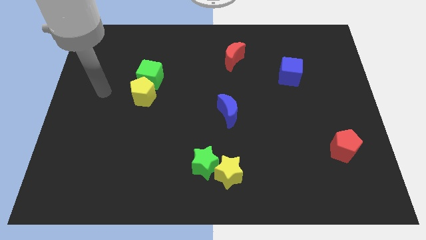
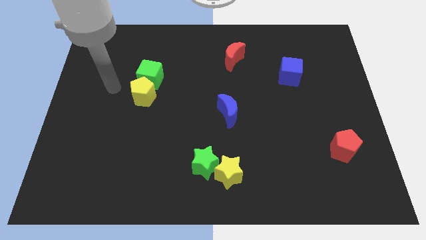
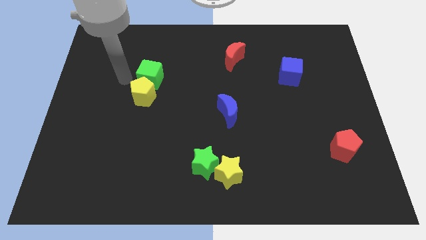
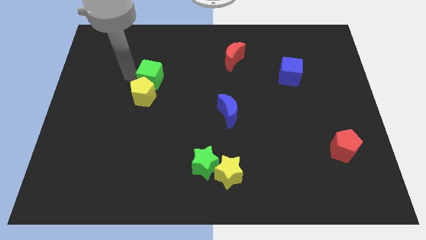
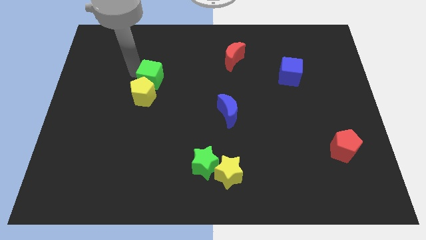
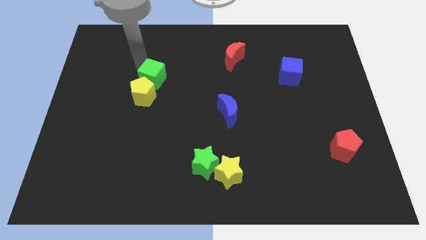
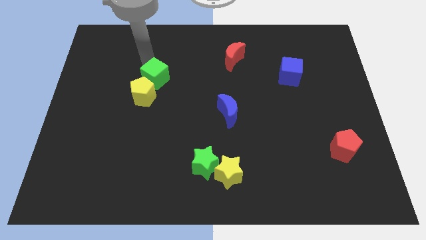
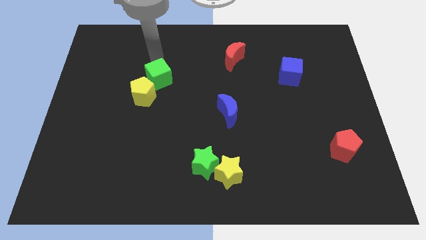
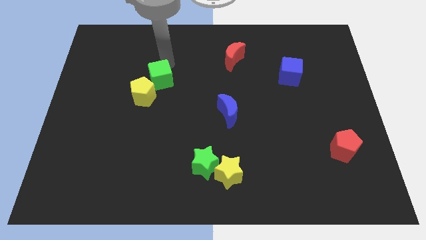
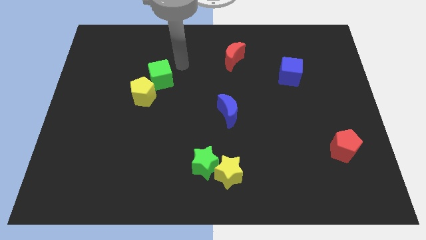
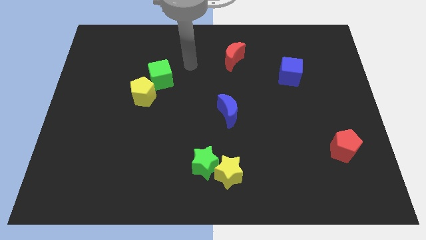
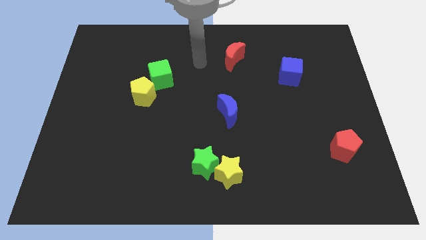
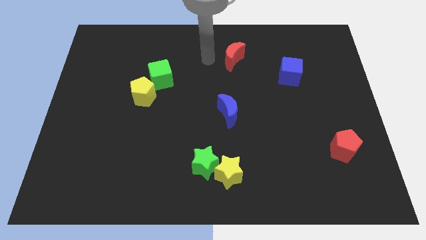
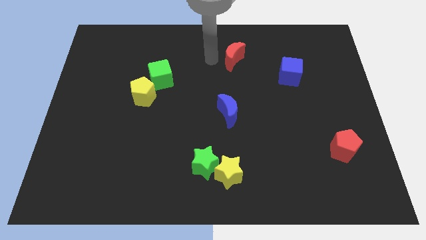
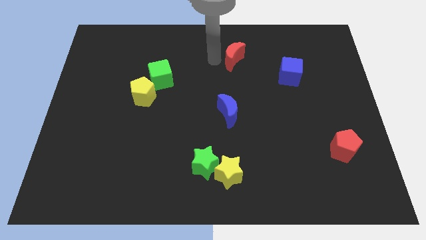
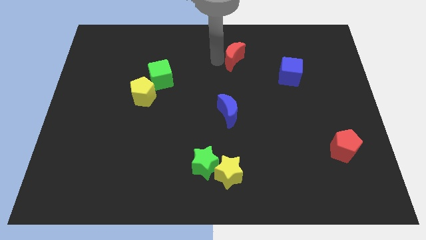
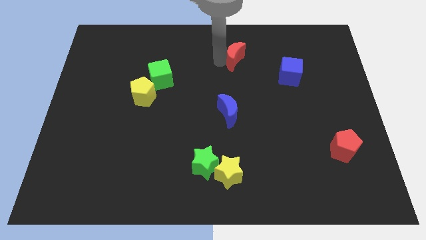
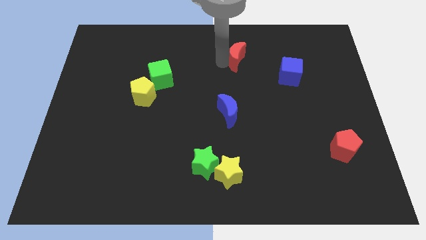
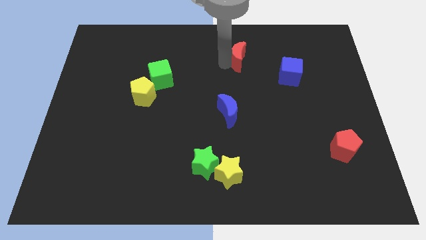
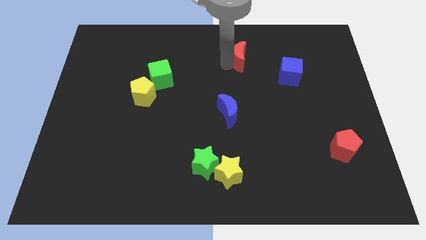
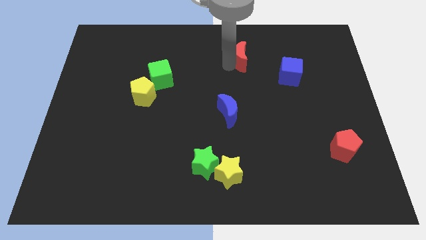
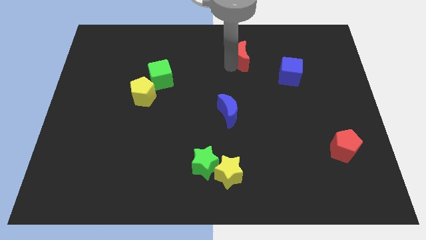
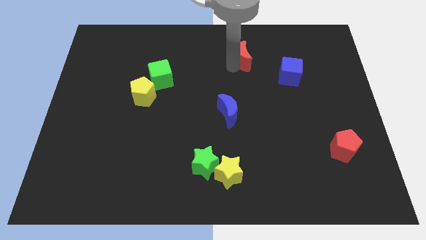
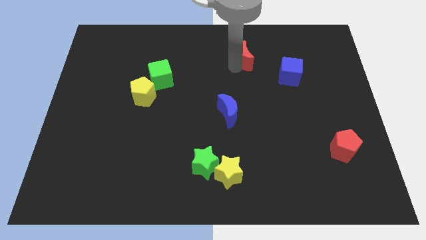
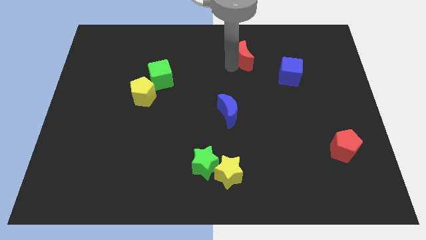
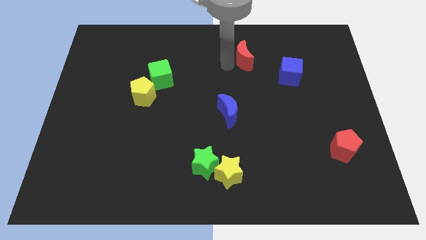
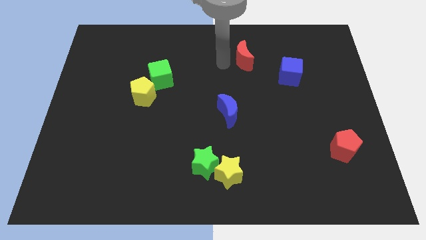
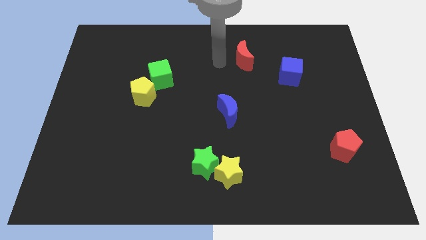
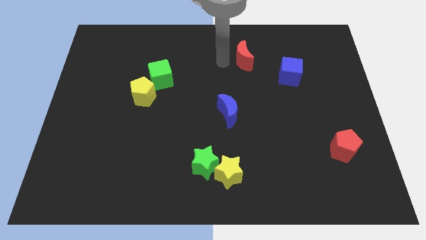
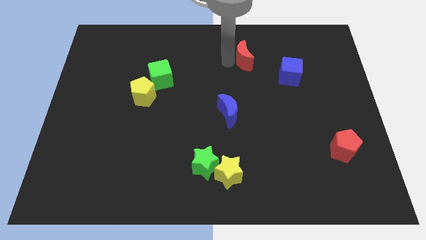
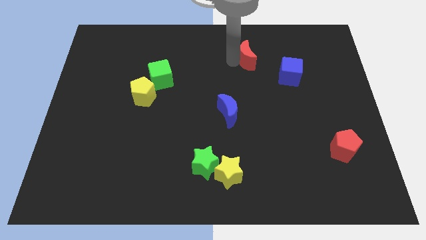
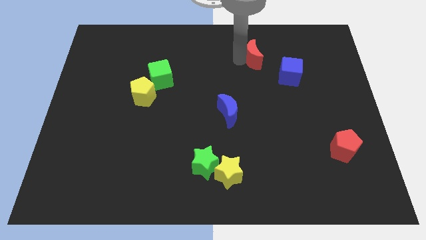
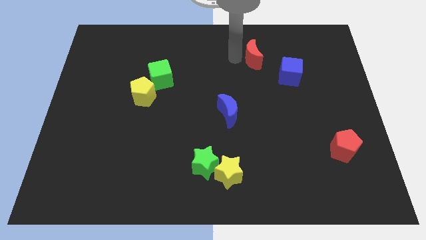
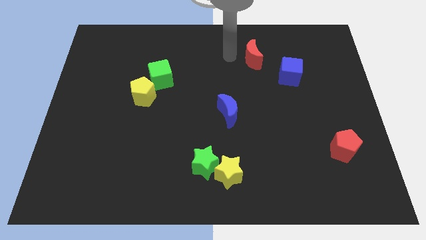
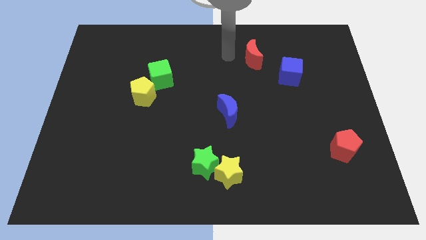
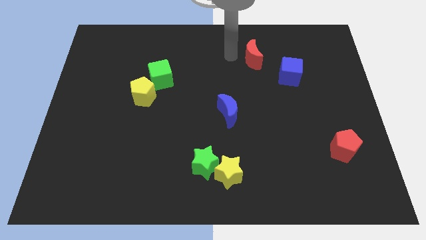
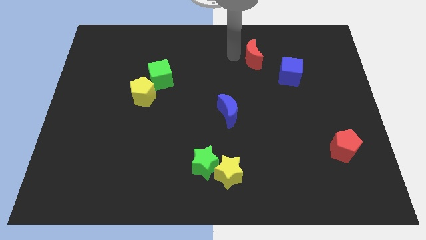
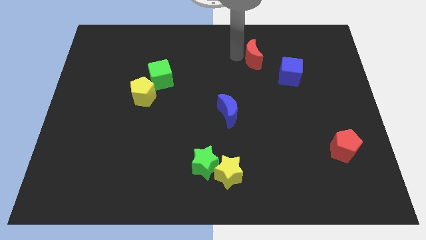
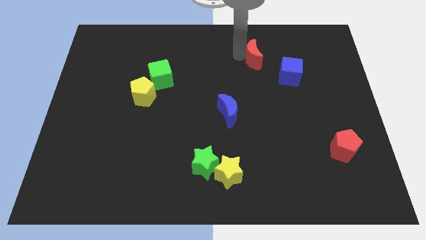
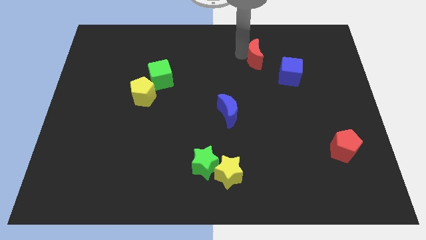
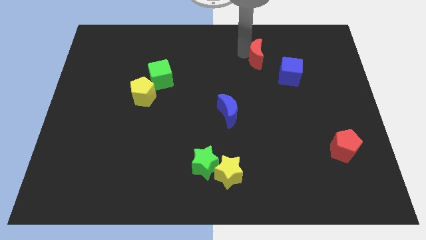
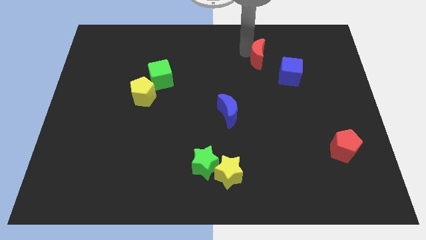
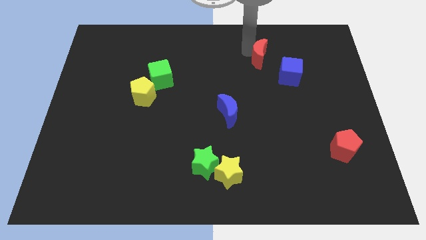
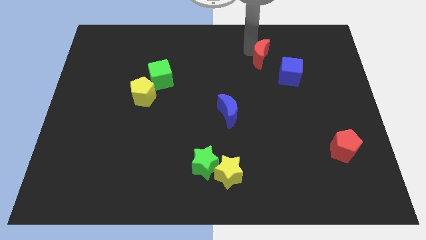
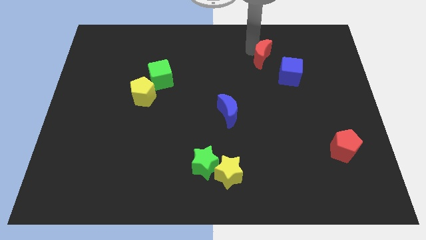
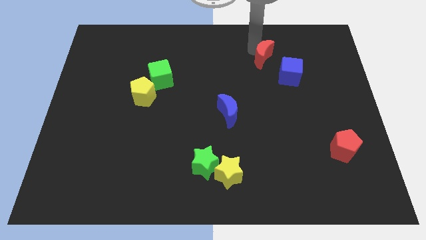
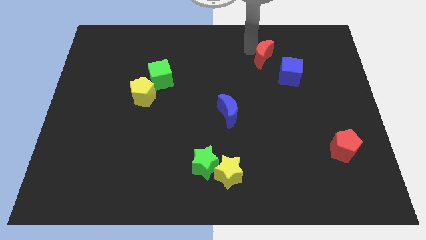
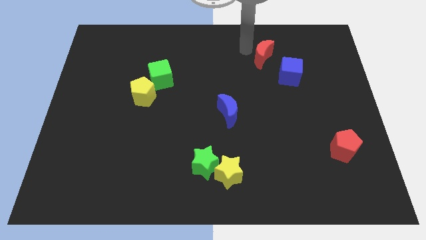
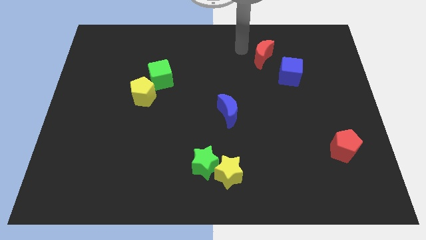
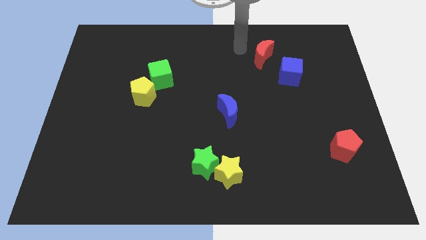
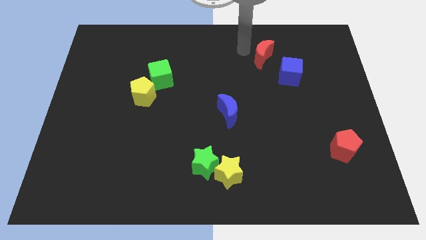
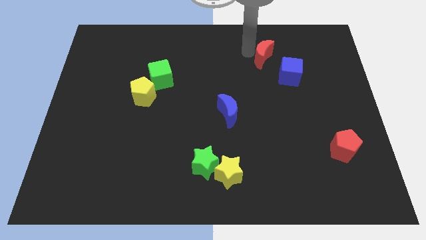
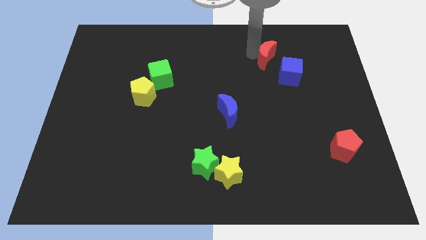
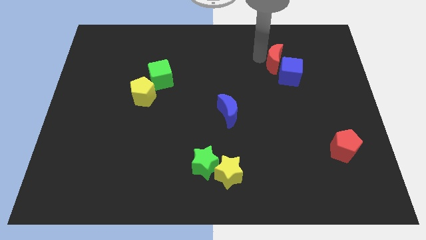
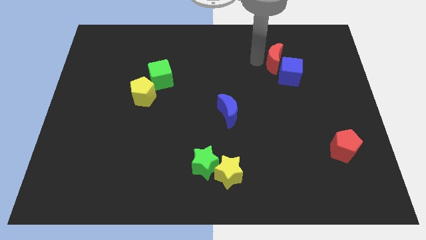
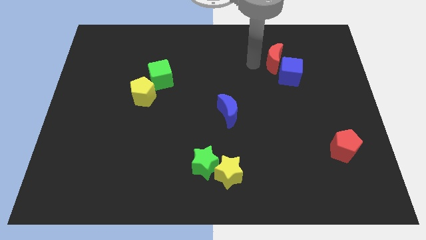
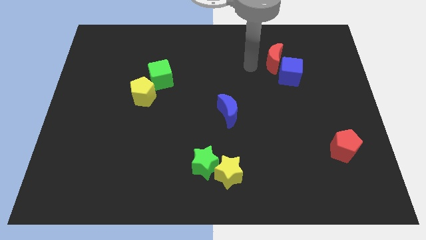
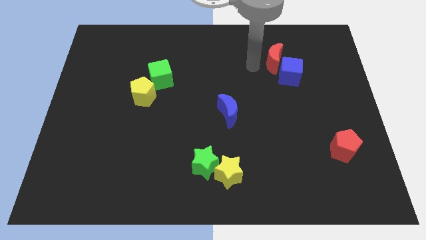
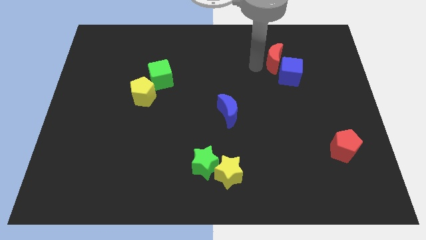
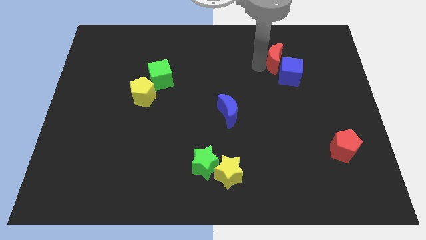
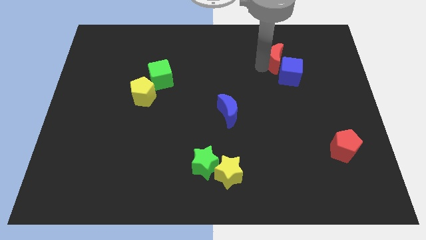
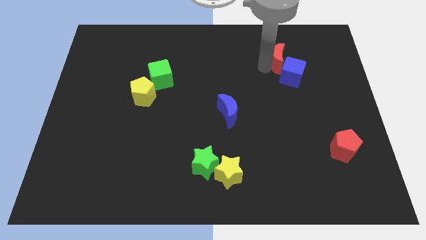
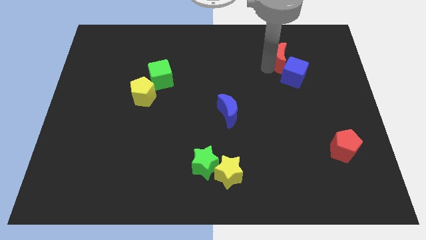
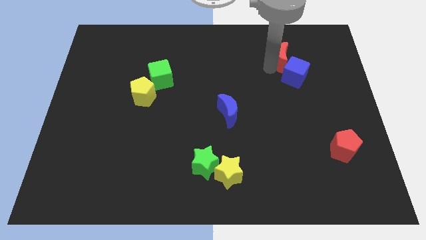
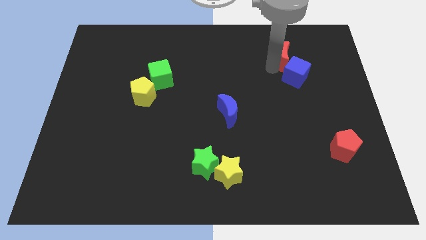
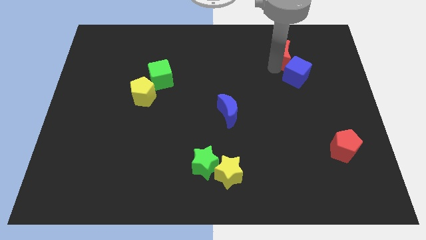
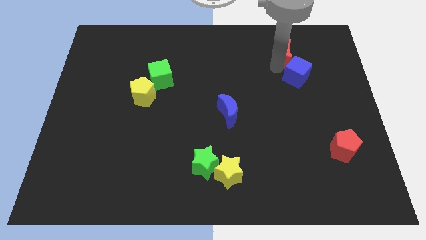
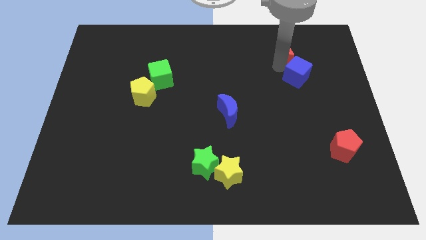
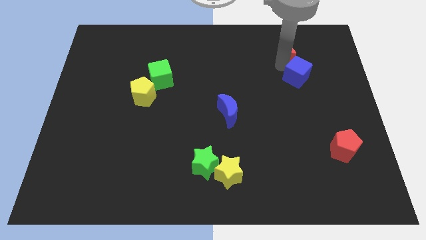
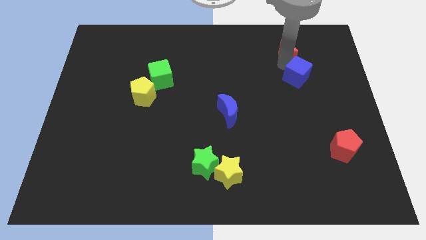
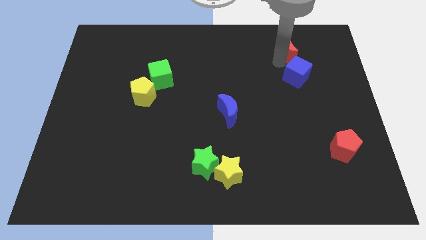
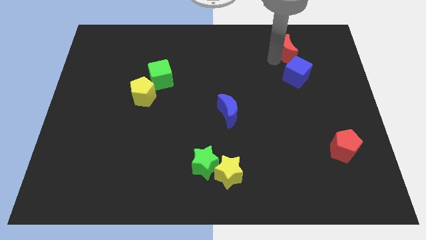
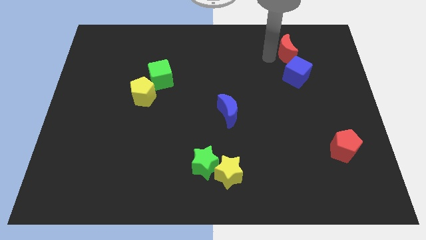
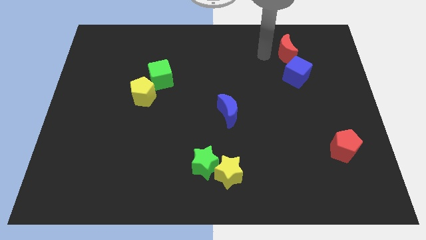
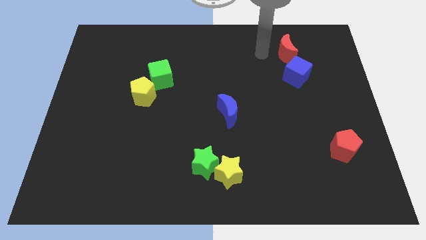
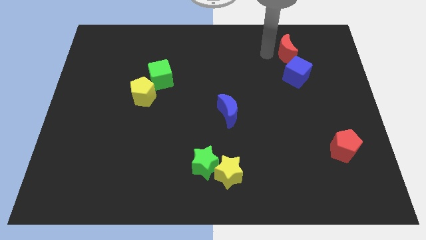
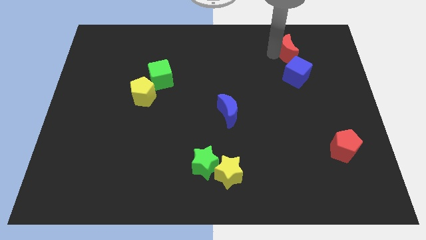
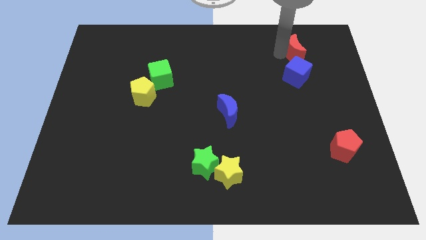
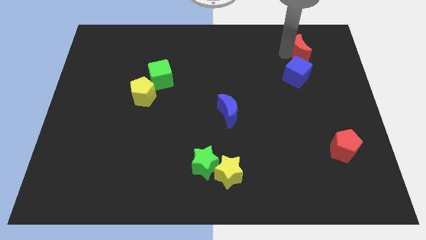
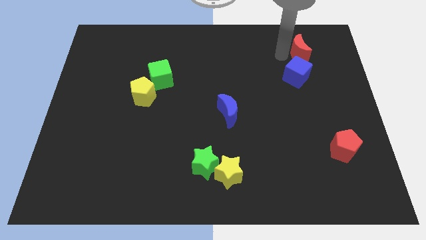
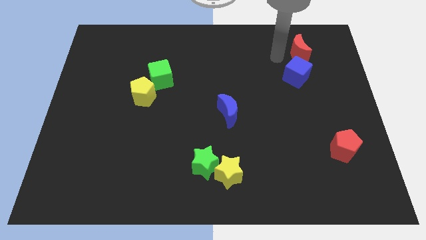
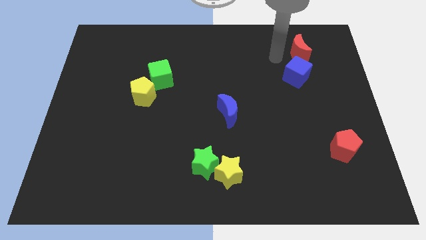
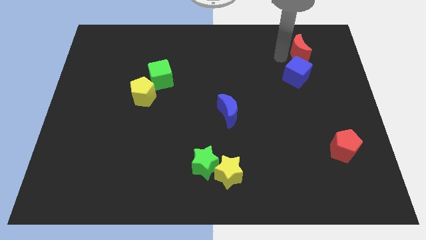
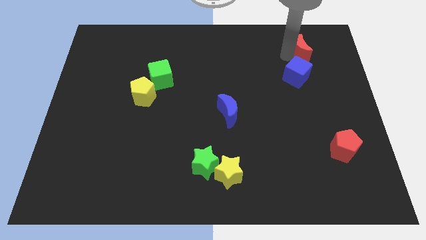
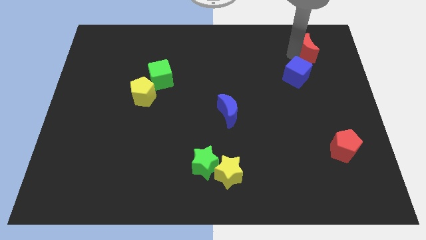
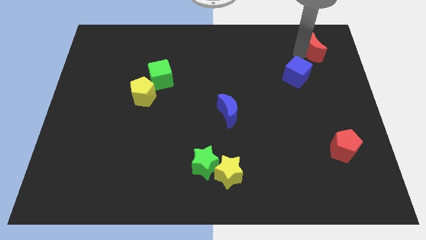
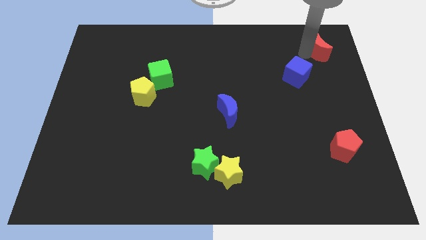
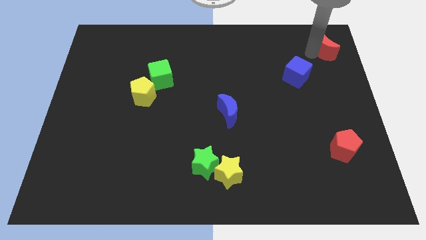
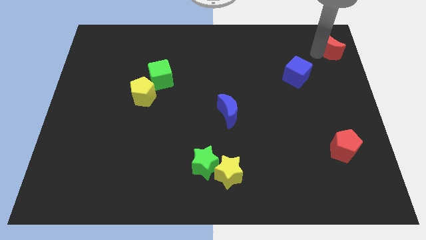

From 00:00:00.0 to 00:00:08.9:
move the red moon to the top right
